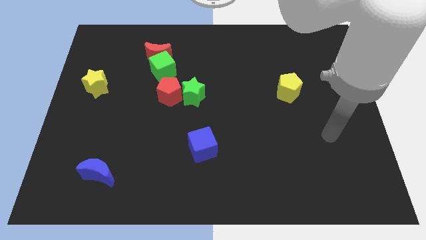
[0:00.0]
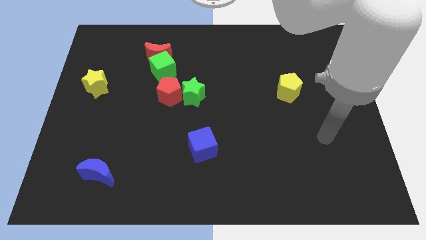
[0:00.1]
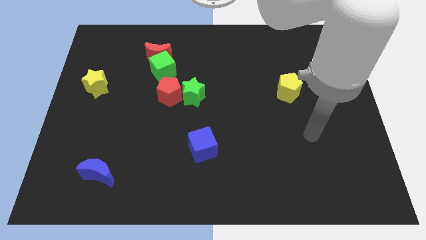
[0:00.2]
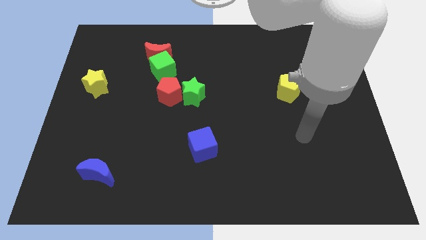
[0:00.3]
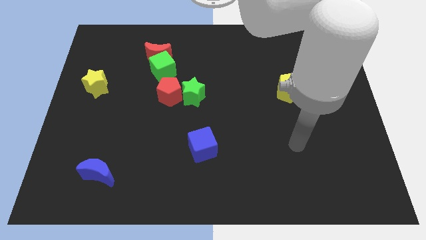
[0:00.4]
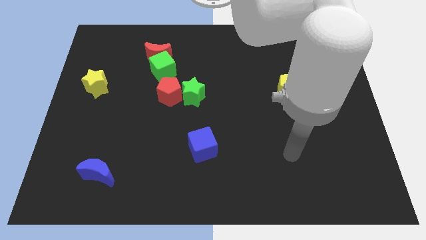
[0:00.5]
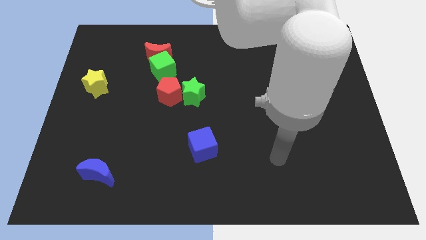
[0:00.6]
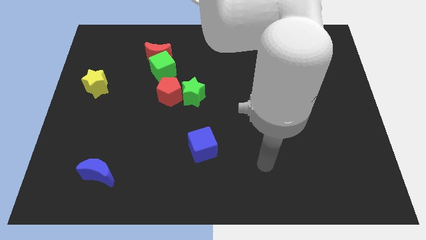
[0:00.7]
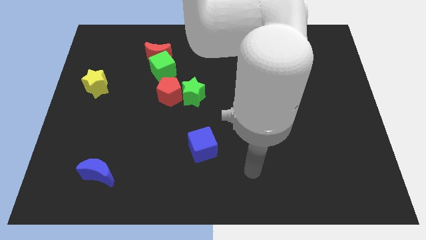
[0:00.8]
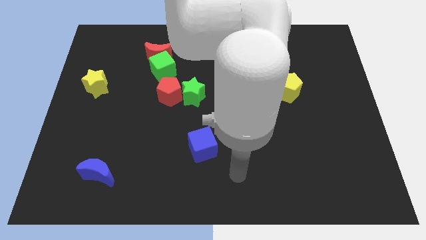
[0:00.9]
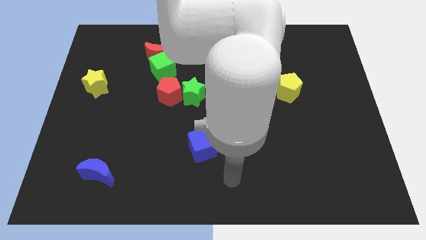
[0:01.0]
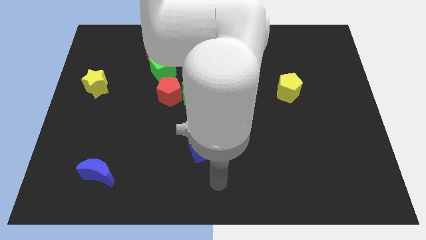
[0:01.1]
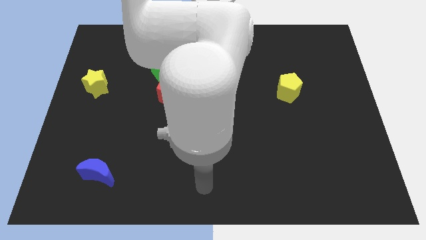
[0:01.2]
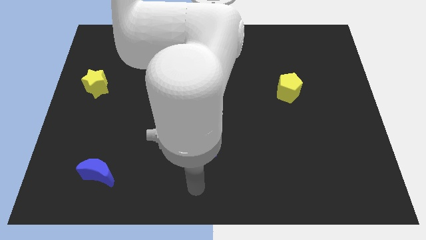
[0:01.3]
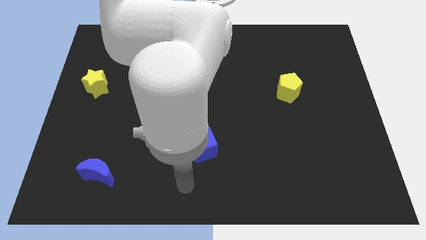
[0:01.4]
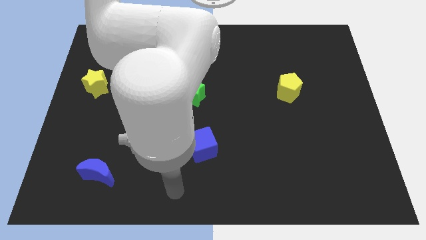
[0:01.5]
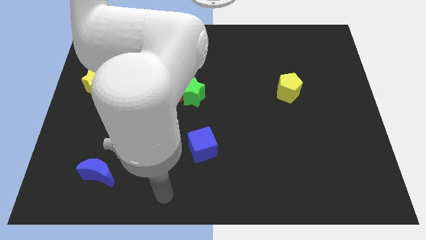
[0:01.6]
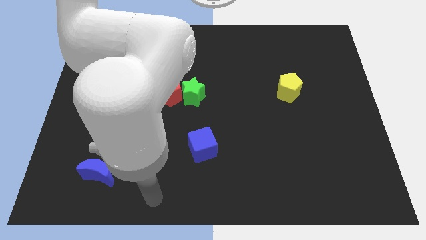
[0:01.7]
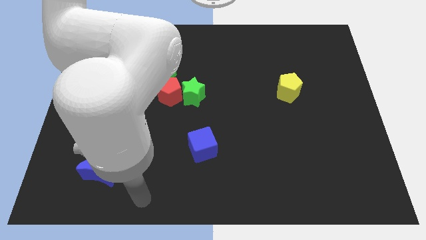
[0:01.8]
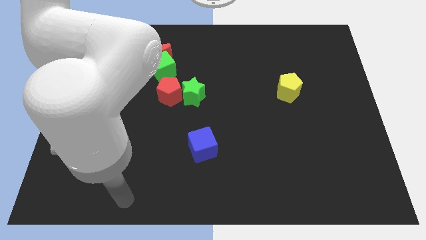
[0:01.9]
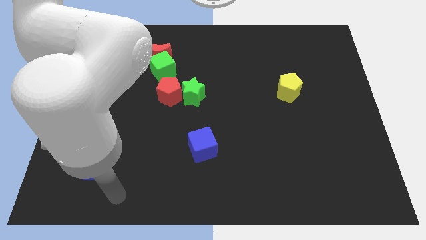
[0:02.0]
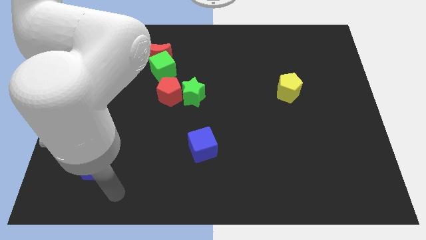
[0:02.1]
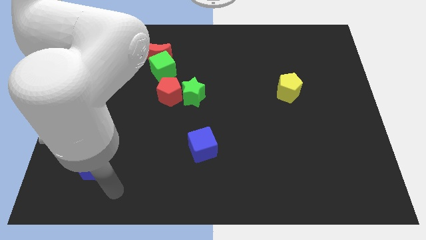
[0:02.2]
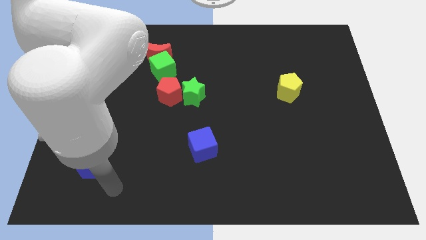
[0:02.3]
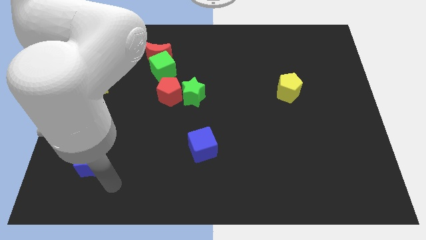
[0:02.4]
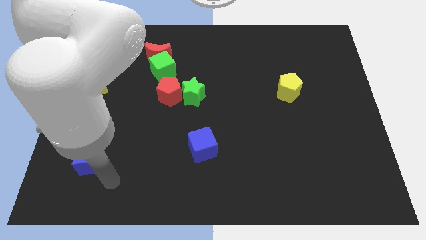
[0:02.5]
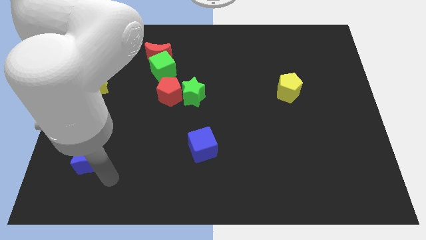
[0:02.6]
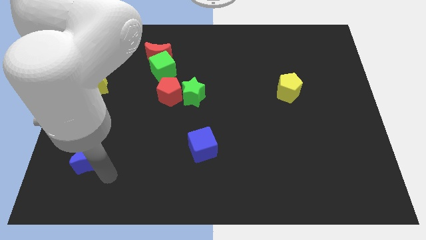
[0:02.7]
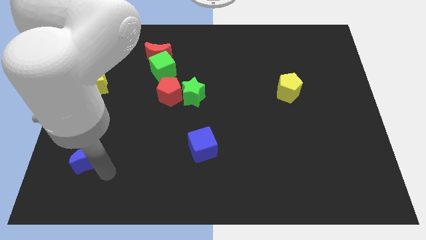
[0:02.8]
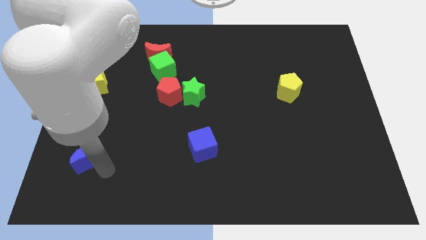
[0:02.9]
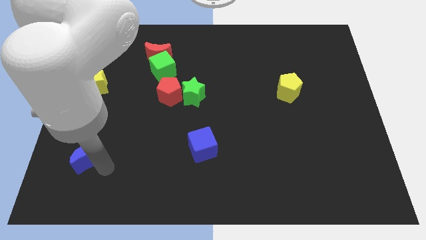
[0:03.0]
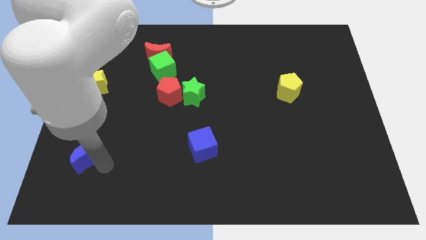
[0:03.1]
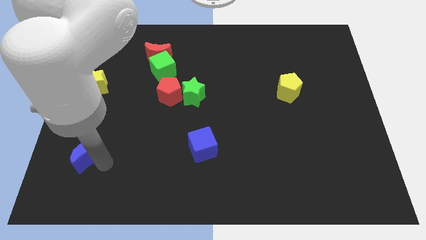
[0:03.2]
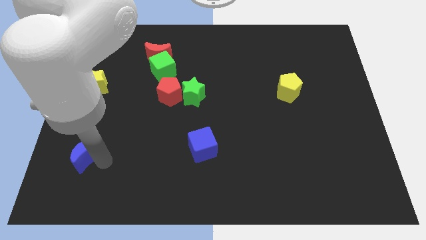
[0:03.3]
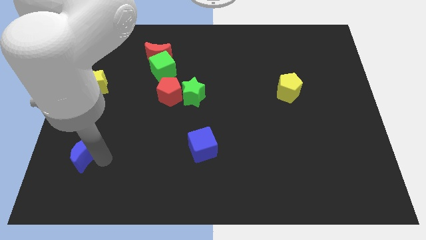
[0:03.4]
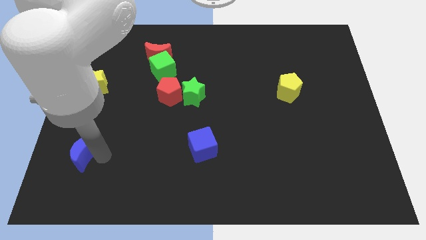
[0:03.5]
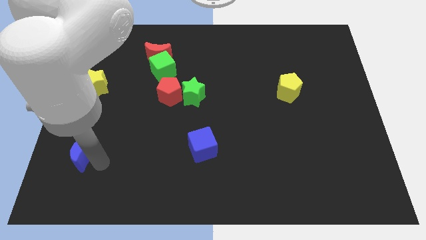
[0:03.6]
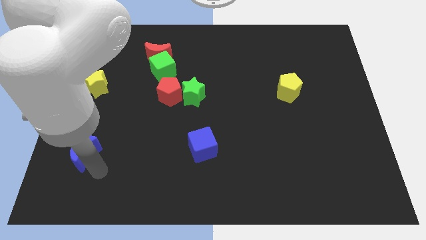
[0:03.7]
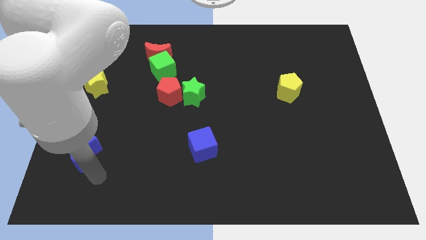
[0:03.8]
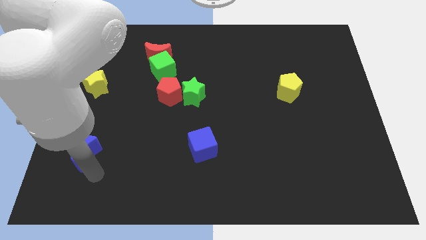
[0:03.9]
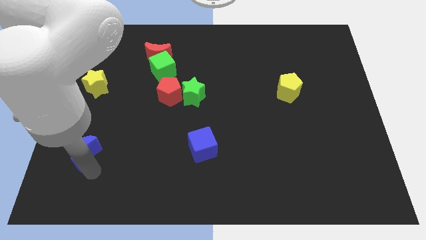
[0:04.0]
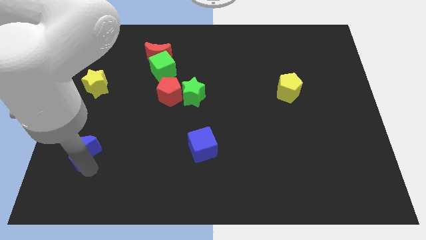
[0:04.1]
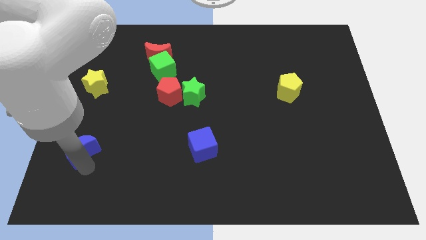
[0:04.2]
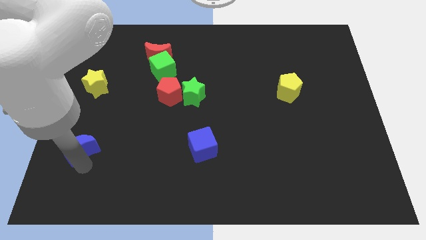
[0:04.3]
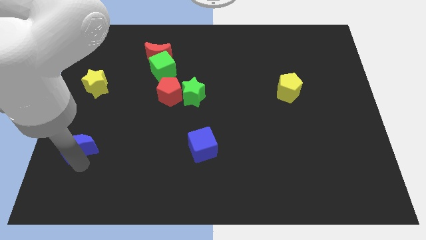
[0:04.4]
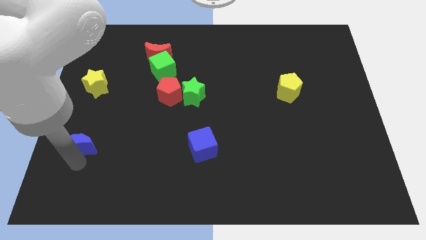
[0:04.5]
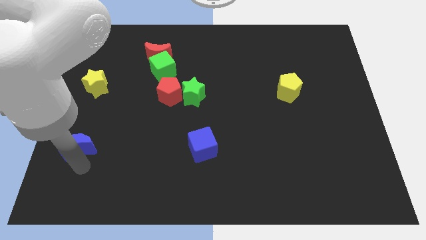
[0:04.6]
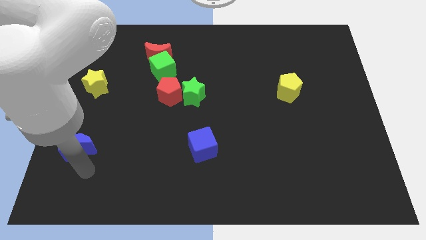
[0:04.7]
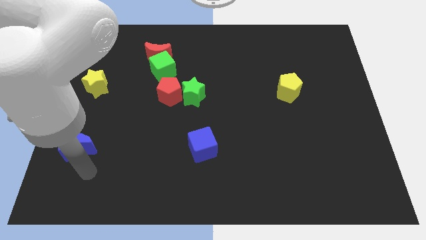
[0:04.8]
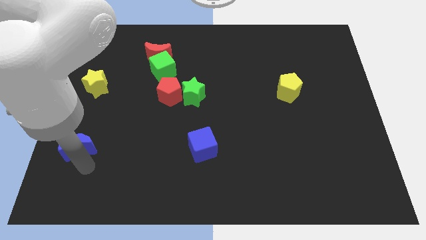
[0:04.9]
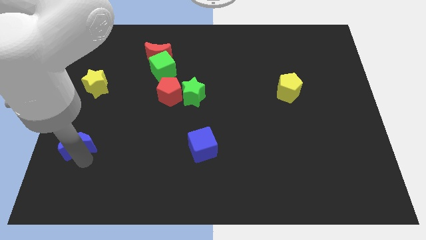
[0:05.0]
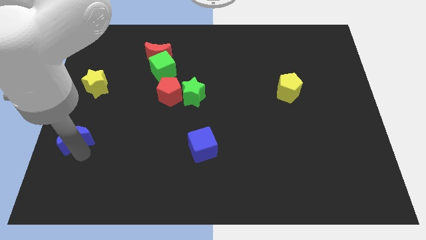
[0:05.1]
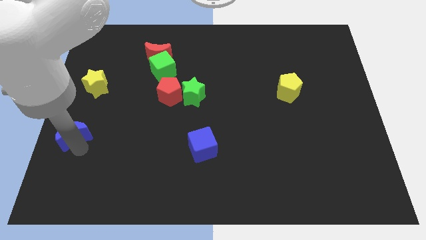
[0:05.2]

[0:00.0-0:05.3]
slide the blue moon to the left side

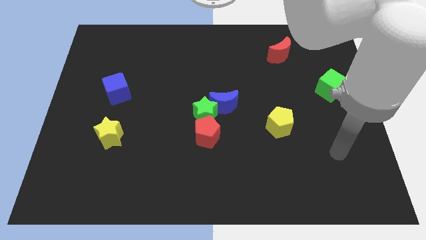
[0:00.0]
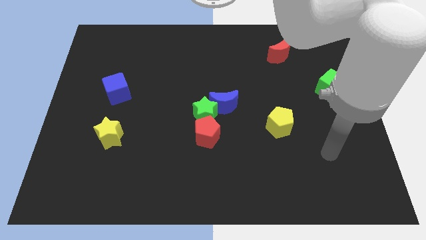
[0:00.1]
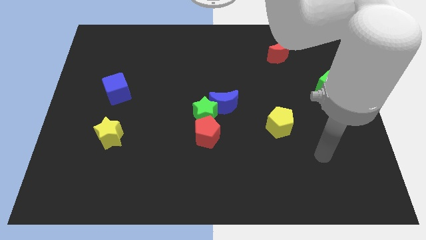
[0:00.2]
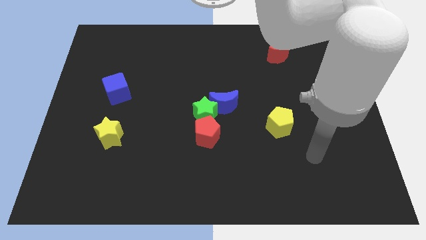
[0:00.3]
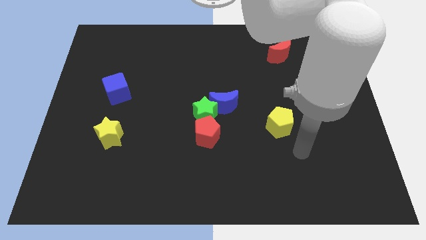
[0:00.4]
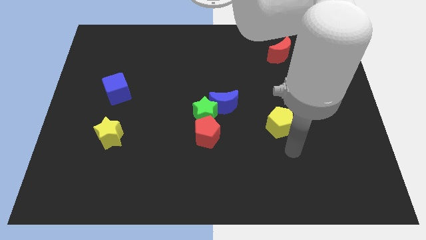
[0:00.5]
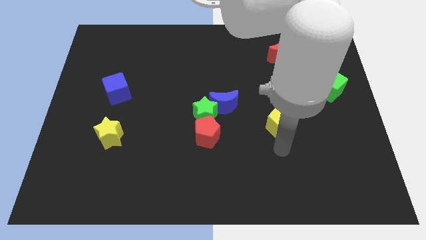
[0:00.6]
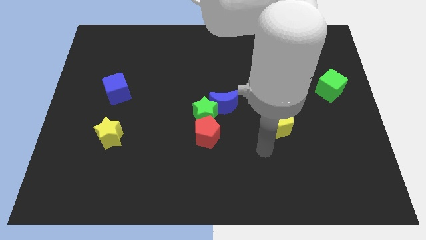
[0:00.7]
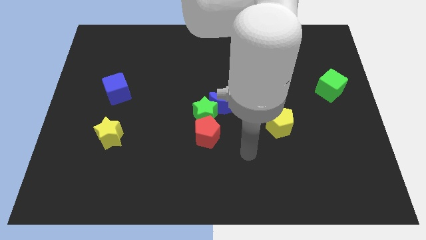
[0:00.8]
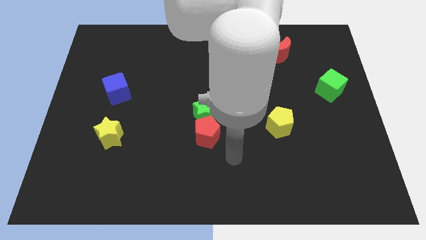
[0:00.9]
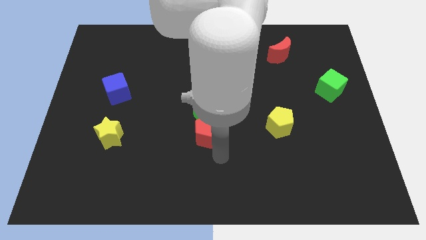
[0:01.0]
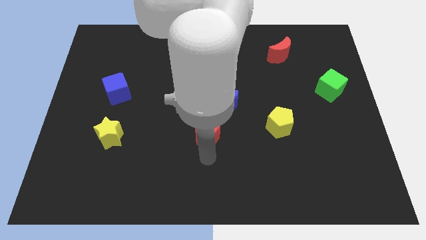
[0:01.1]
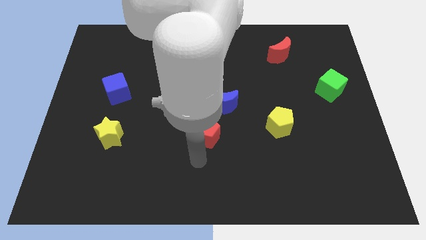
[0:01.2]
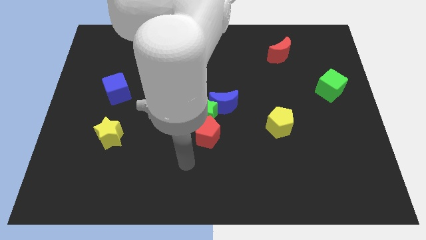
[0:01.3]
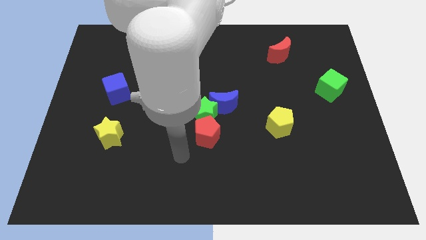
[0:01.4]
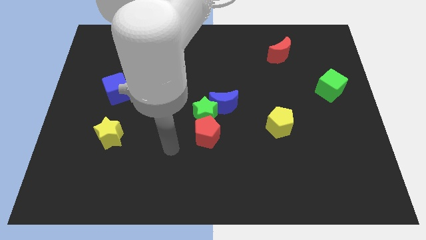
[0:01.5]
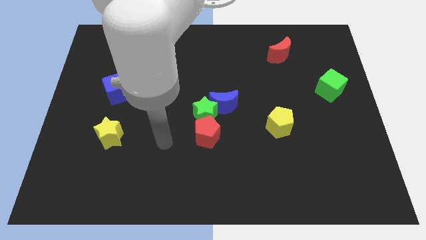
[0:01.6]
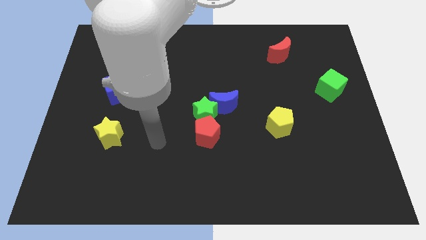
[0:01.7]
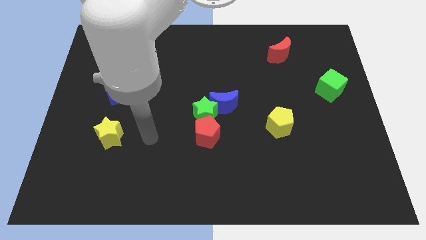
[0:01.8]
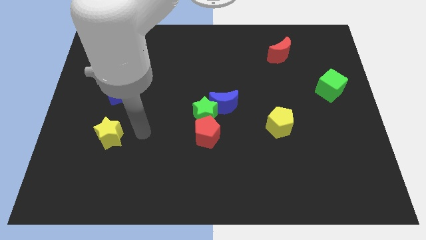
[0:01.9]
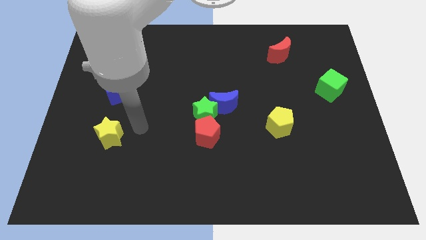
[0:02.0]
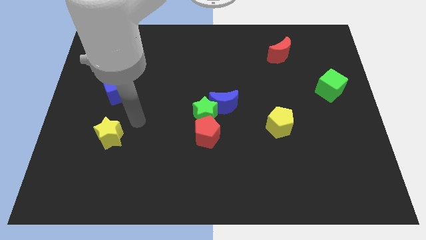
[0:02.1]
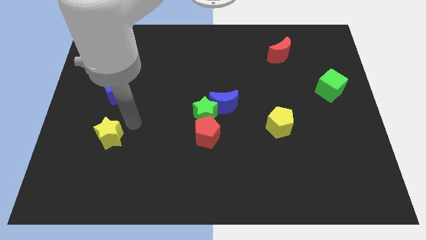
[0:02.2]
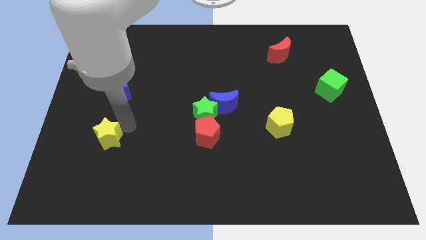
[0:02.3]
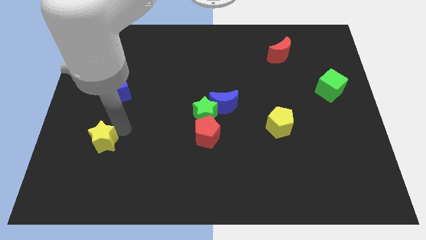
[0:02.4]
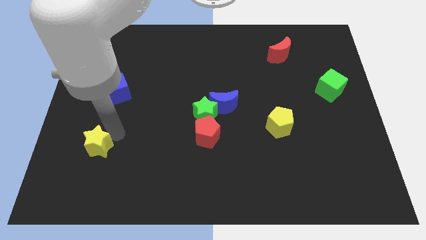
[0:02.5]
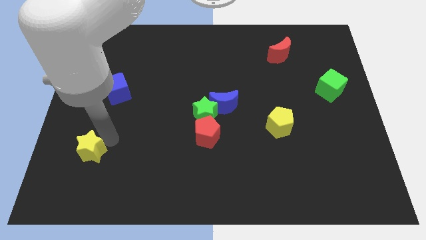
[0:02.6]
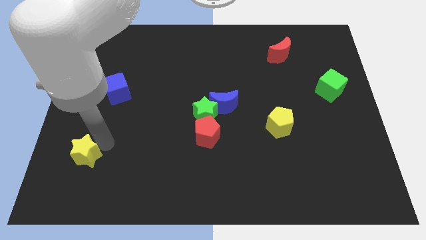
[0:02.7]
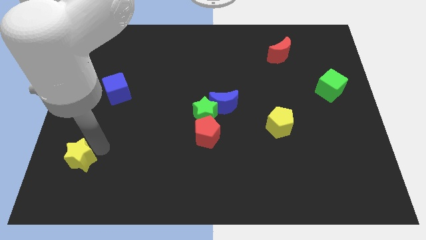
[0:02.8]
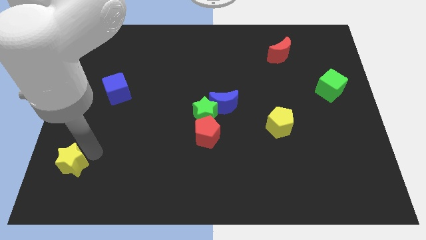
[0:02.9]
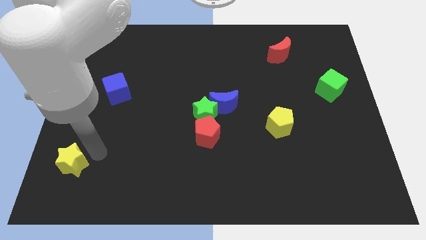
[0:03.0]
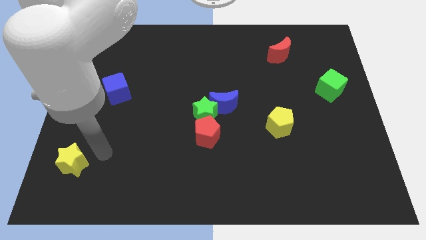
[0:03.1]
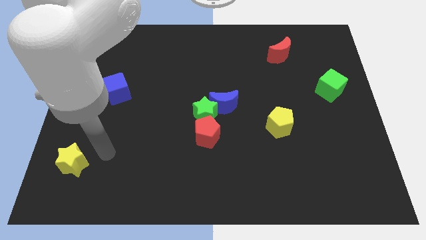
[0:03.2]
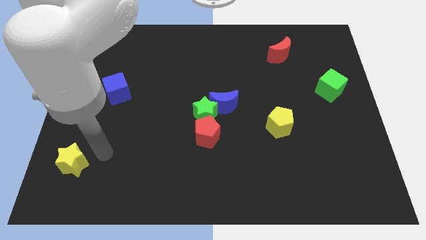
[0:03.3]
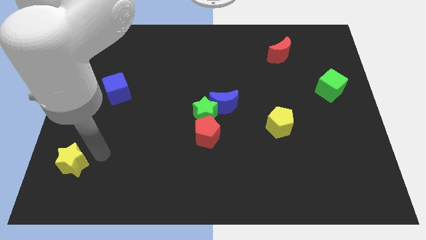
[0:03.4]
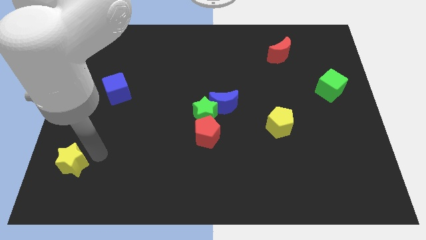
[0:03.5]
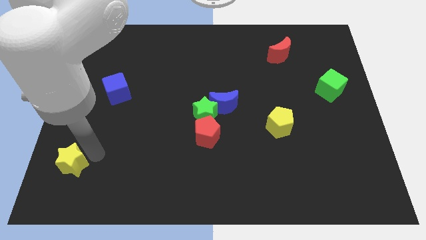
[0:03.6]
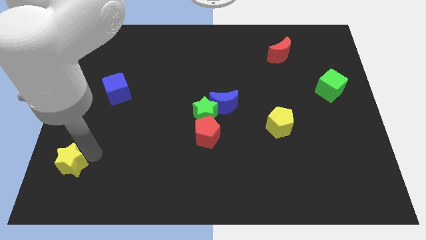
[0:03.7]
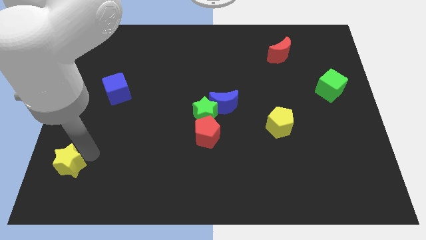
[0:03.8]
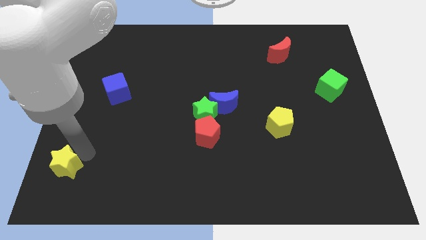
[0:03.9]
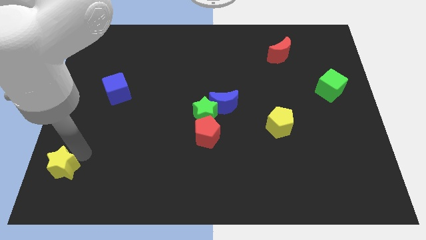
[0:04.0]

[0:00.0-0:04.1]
push the yellow star to the bottom left
